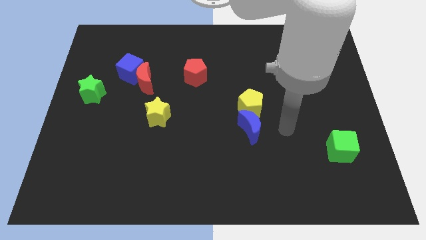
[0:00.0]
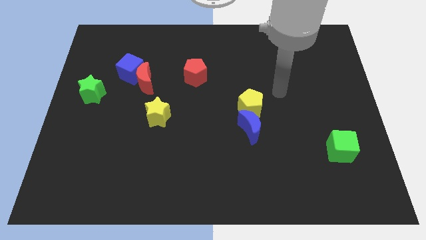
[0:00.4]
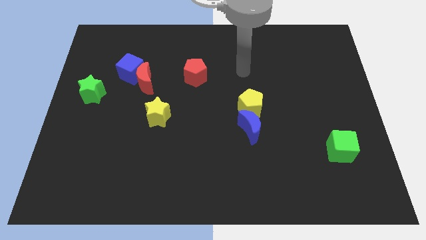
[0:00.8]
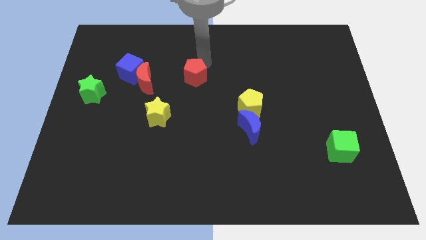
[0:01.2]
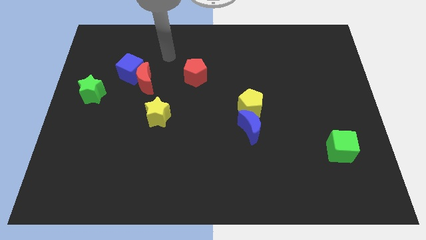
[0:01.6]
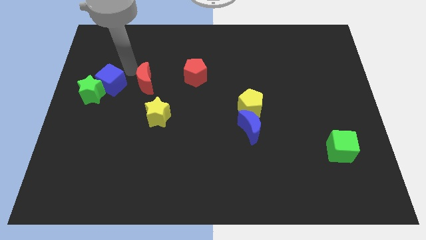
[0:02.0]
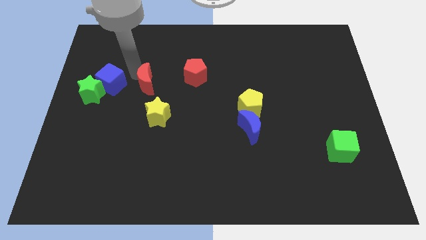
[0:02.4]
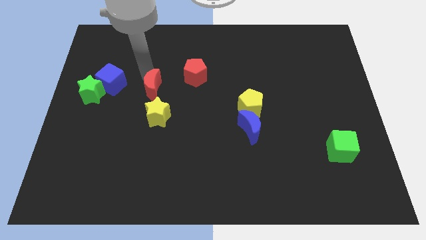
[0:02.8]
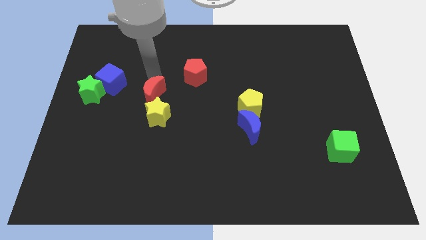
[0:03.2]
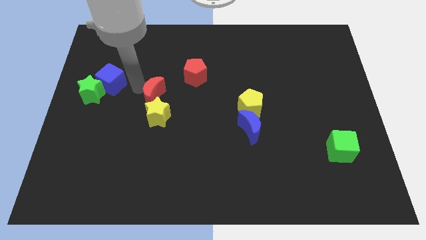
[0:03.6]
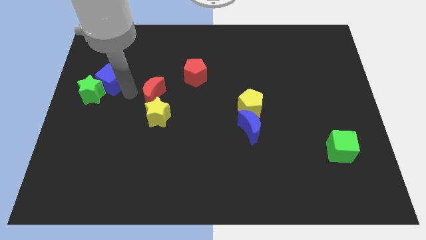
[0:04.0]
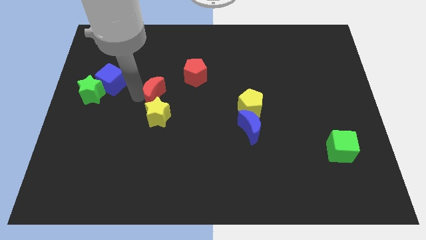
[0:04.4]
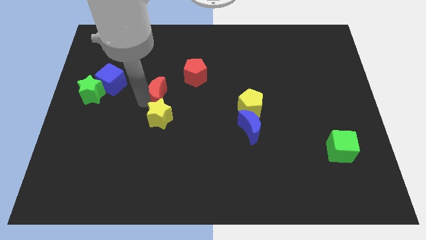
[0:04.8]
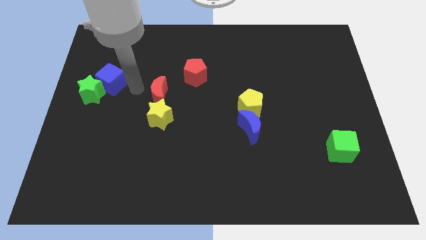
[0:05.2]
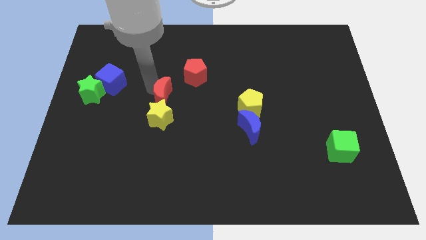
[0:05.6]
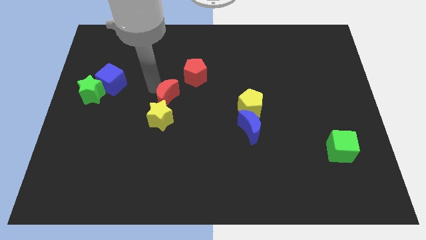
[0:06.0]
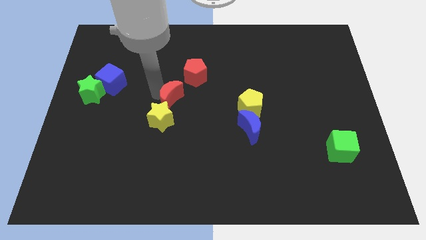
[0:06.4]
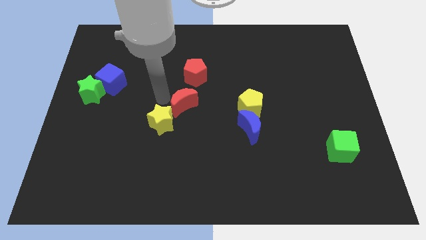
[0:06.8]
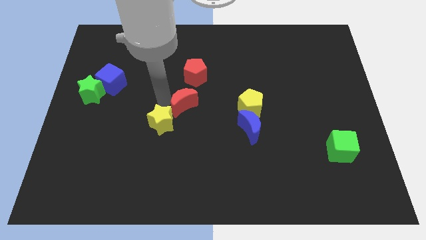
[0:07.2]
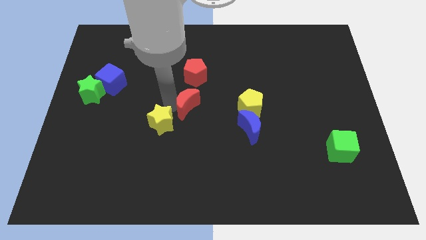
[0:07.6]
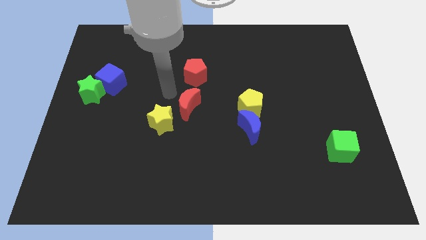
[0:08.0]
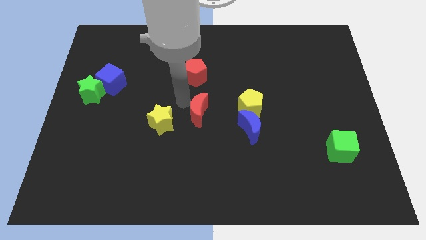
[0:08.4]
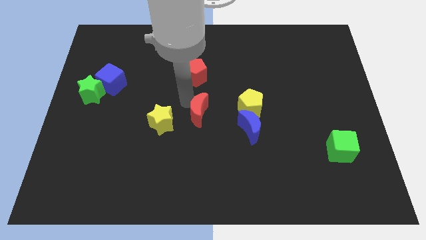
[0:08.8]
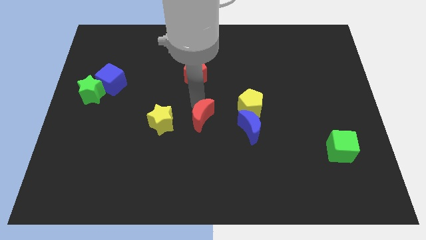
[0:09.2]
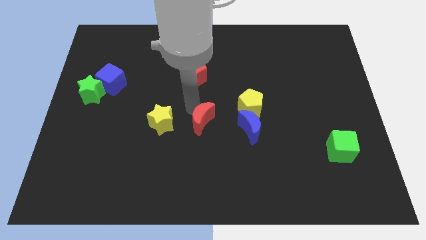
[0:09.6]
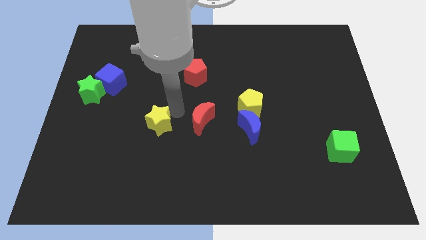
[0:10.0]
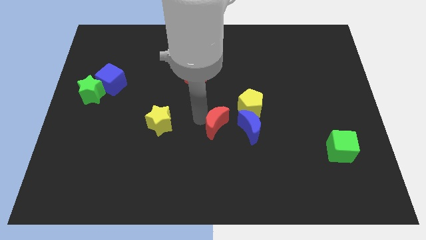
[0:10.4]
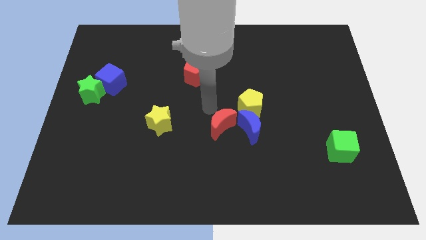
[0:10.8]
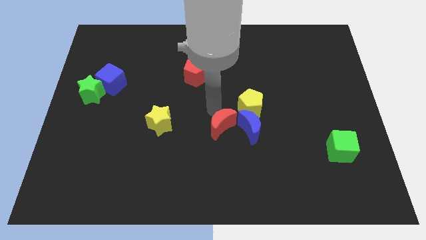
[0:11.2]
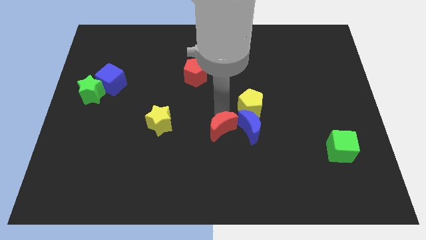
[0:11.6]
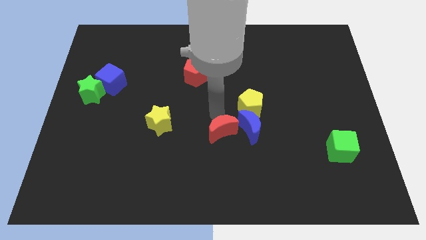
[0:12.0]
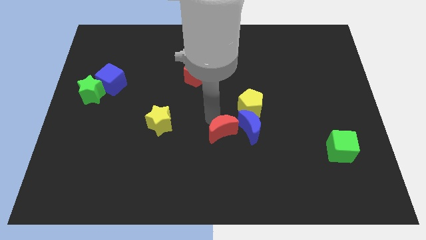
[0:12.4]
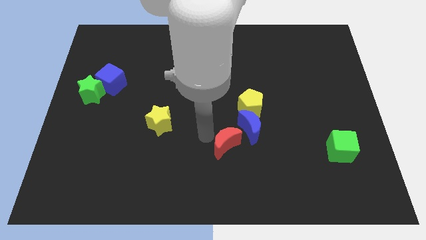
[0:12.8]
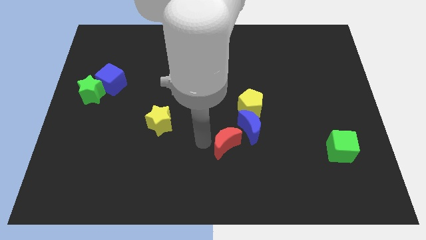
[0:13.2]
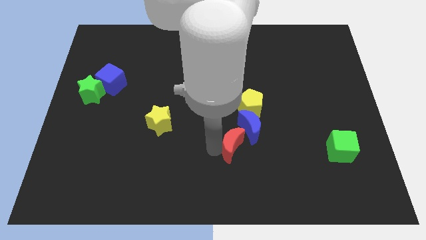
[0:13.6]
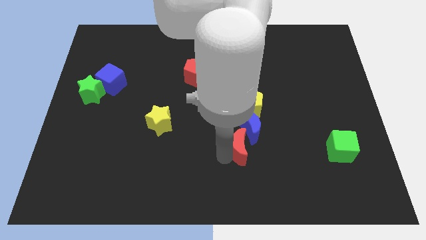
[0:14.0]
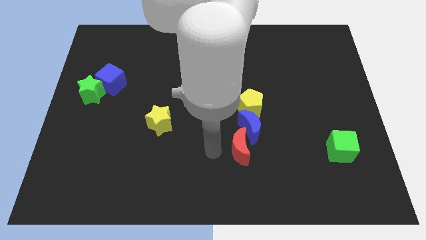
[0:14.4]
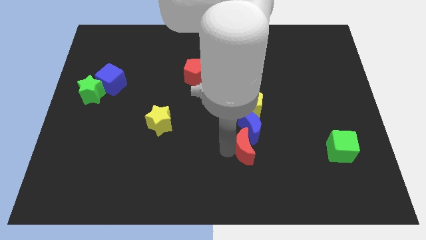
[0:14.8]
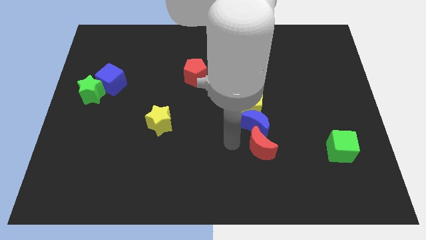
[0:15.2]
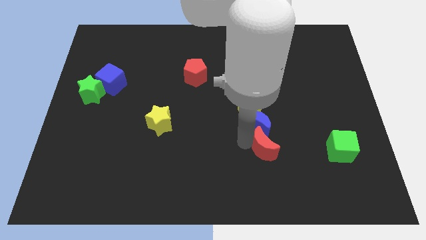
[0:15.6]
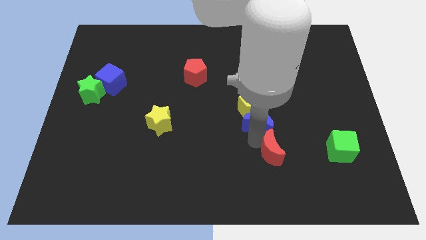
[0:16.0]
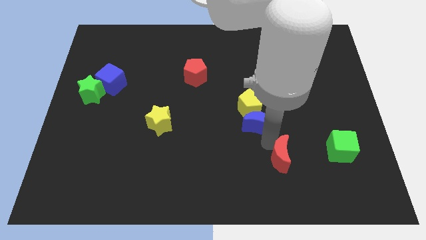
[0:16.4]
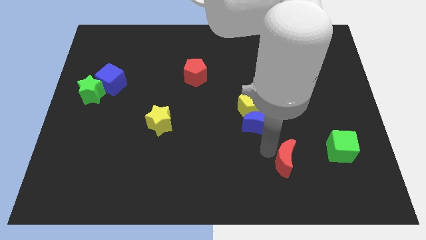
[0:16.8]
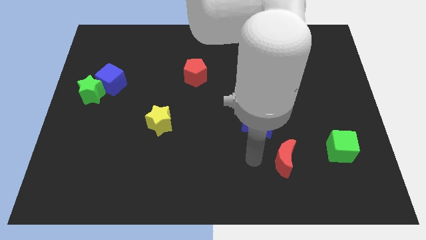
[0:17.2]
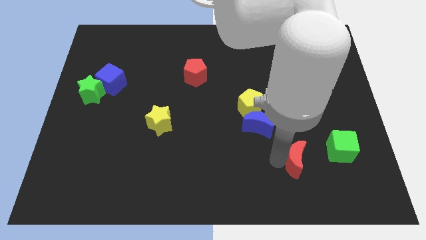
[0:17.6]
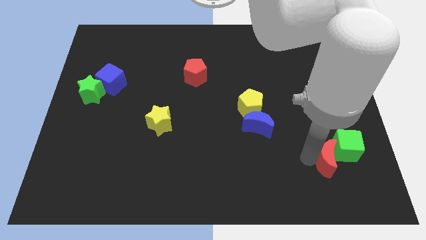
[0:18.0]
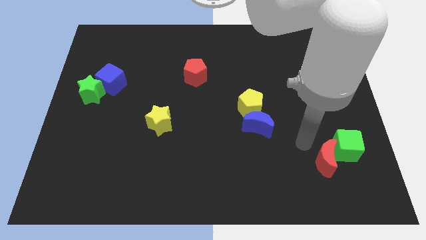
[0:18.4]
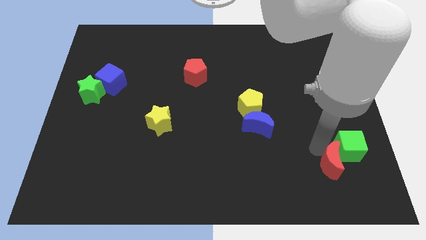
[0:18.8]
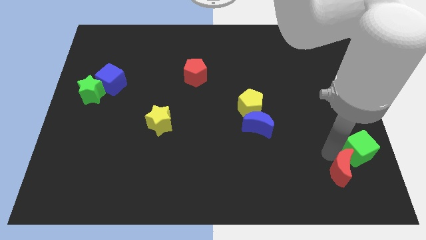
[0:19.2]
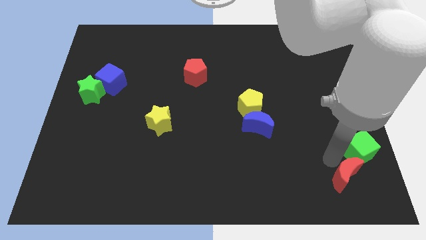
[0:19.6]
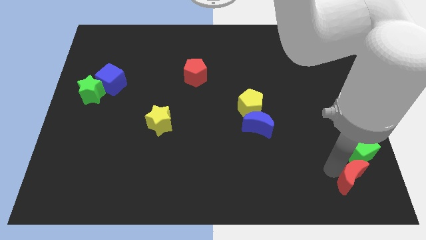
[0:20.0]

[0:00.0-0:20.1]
slide the red moon to the lower right corner

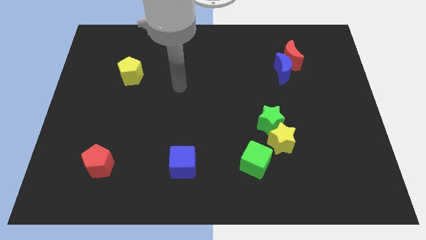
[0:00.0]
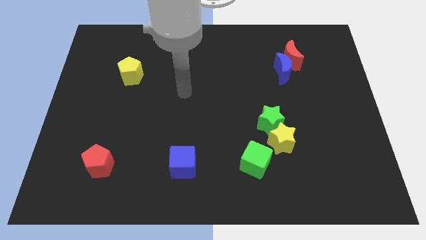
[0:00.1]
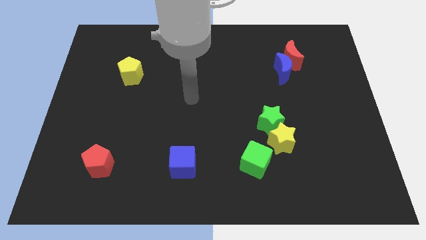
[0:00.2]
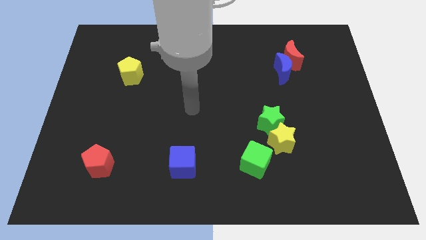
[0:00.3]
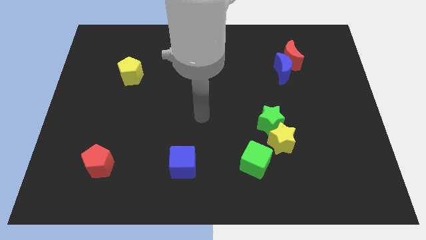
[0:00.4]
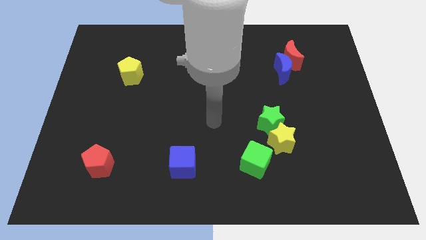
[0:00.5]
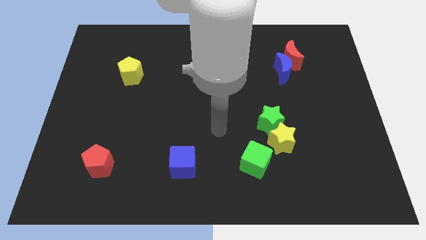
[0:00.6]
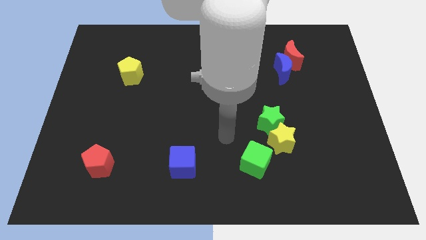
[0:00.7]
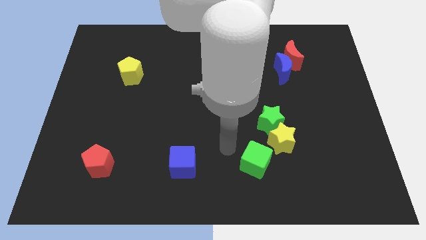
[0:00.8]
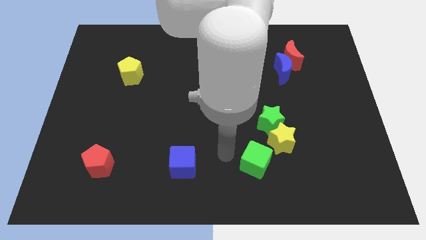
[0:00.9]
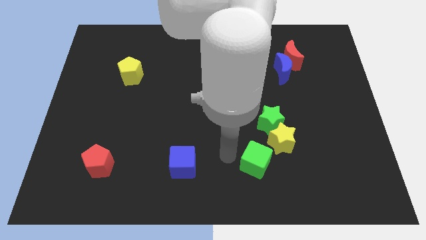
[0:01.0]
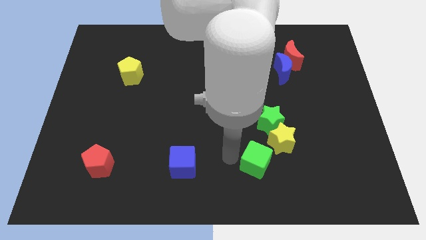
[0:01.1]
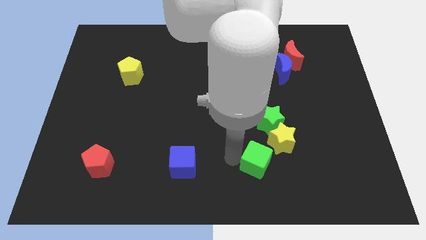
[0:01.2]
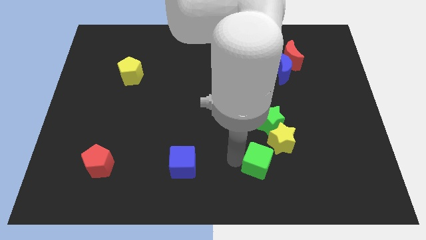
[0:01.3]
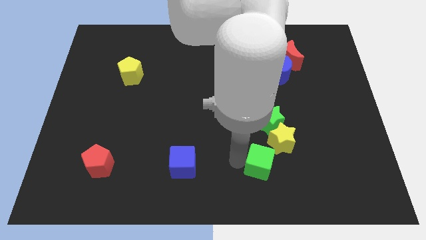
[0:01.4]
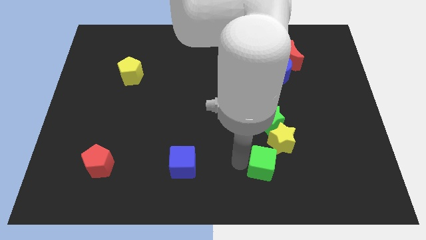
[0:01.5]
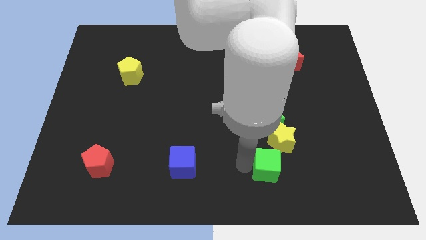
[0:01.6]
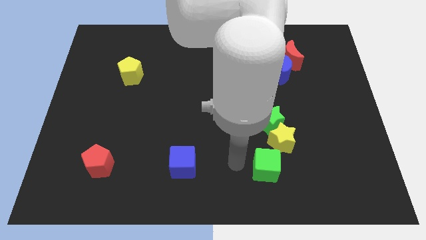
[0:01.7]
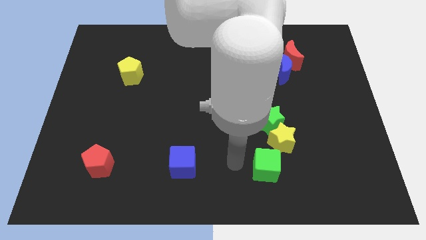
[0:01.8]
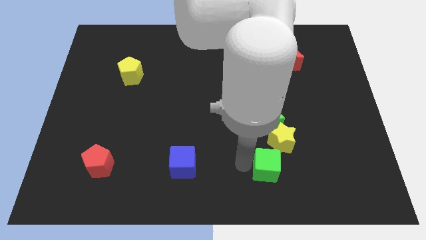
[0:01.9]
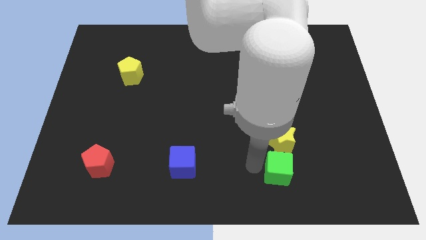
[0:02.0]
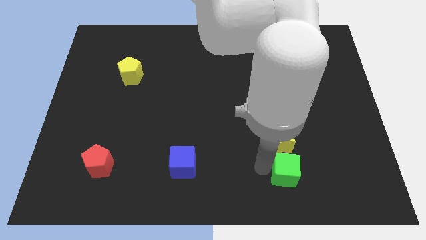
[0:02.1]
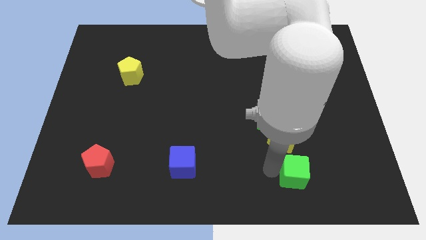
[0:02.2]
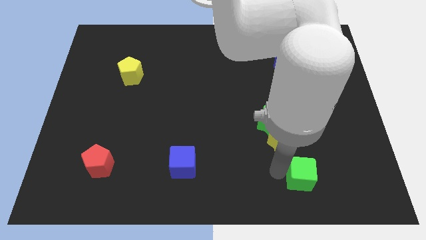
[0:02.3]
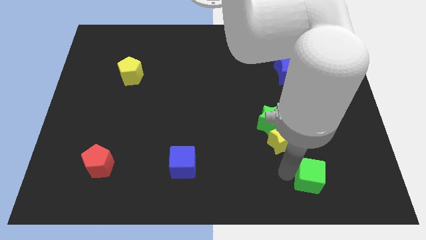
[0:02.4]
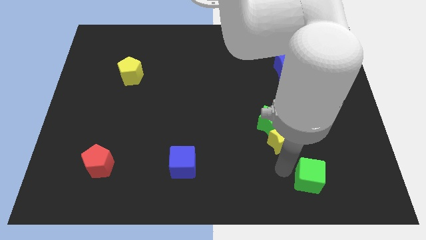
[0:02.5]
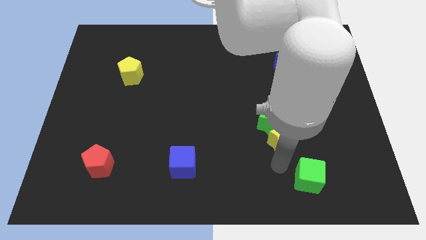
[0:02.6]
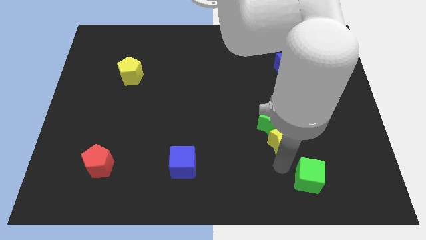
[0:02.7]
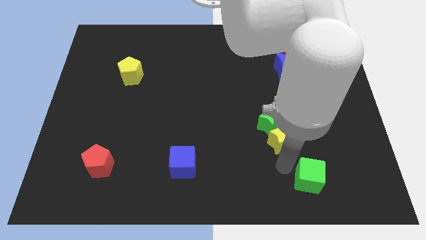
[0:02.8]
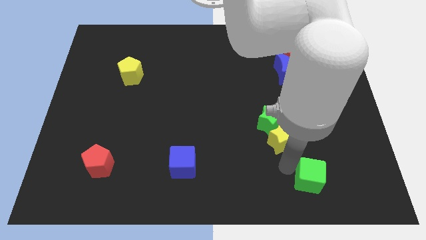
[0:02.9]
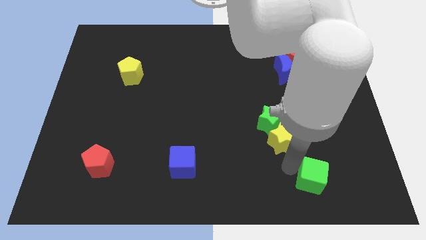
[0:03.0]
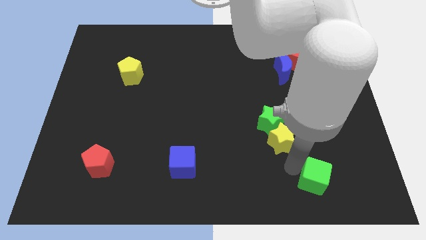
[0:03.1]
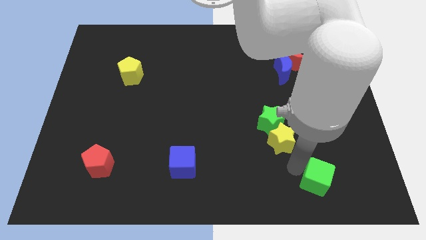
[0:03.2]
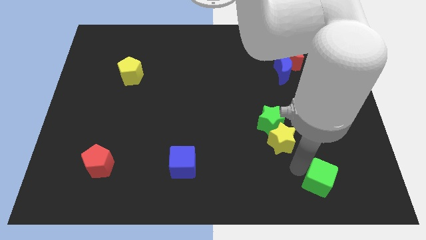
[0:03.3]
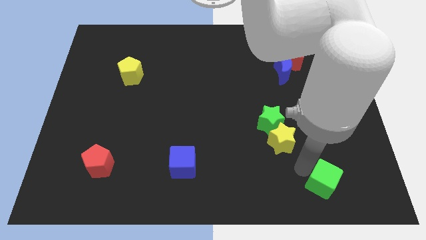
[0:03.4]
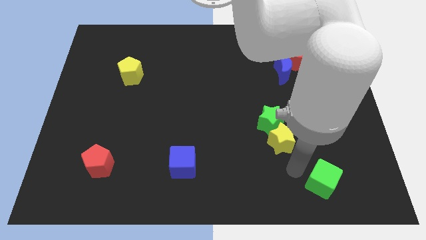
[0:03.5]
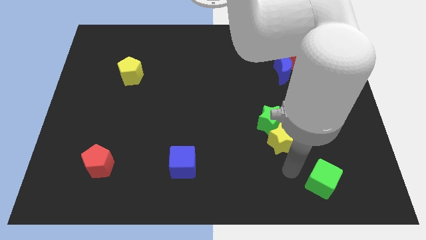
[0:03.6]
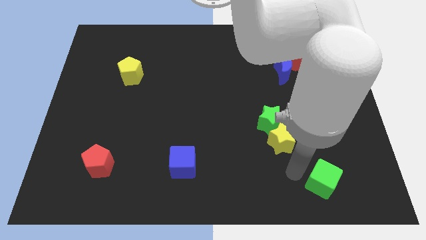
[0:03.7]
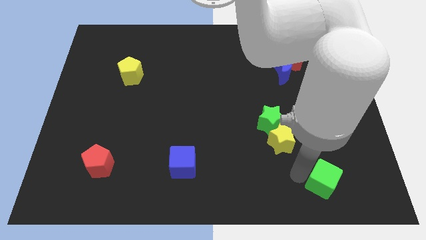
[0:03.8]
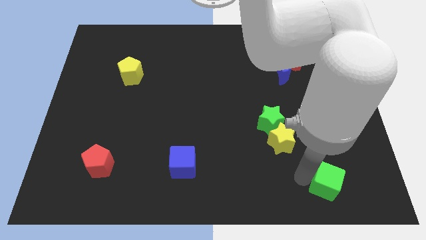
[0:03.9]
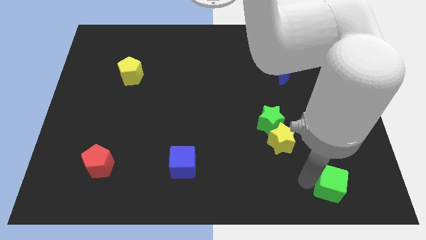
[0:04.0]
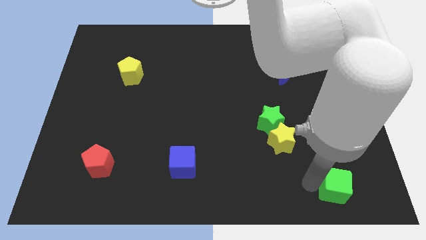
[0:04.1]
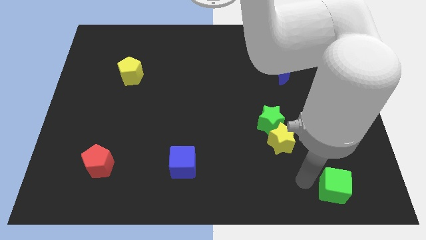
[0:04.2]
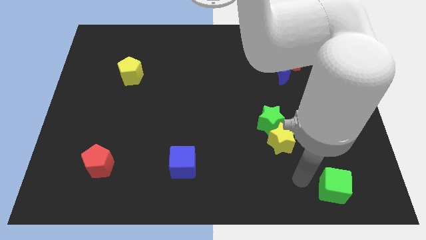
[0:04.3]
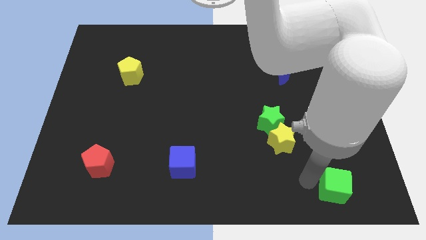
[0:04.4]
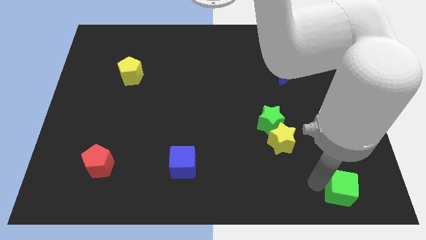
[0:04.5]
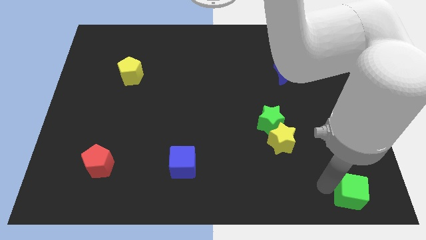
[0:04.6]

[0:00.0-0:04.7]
move the green cube to the lower right corner
